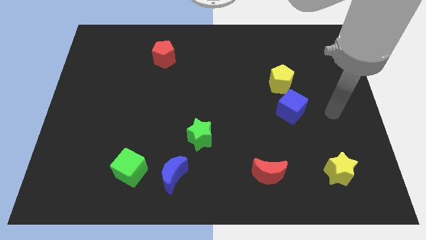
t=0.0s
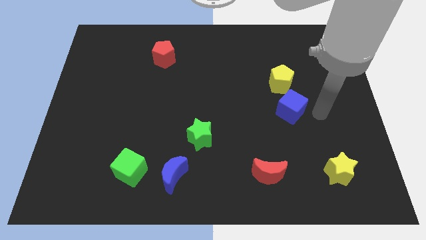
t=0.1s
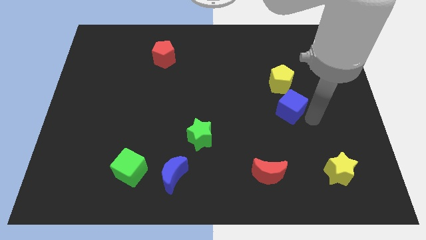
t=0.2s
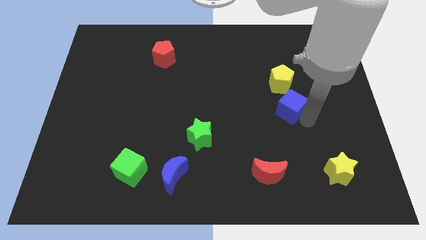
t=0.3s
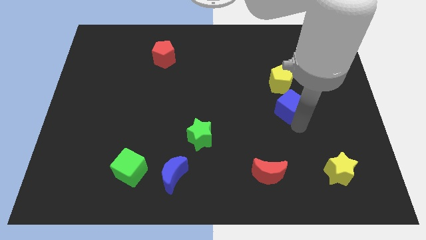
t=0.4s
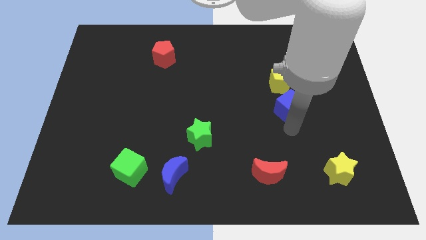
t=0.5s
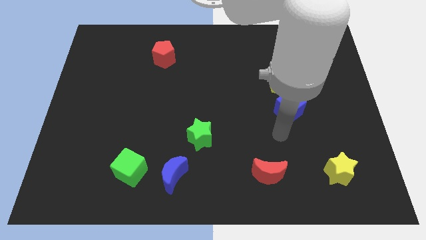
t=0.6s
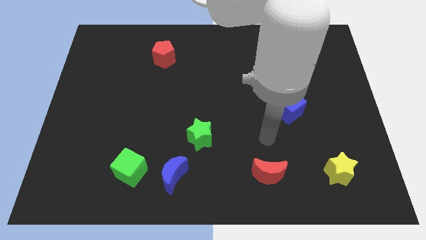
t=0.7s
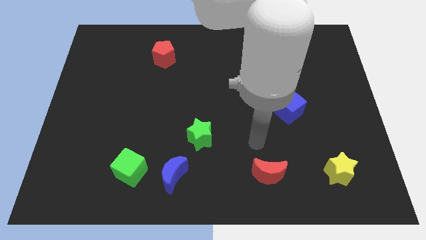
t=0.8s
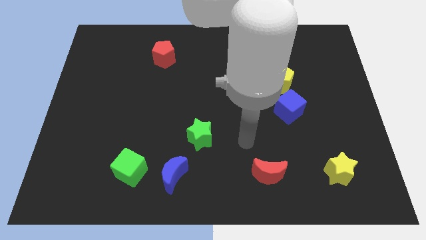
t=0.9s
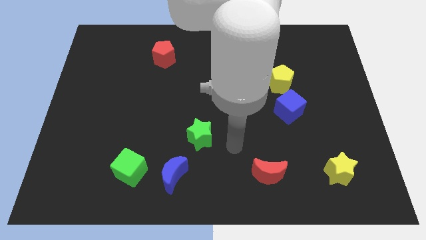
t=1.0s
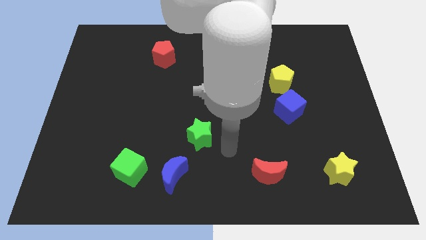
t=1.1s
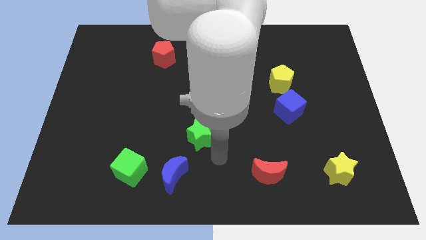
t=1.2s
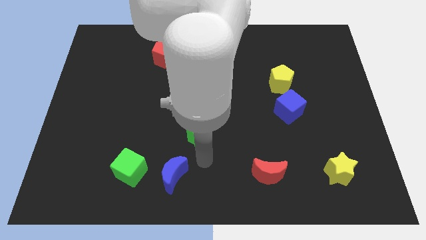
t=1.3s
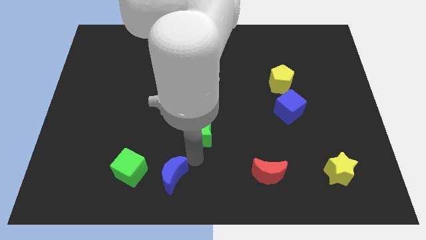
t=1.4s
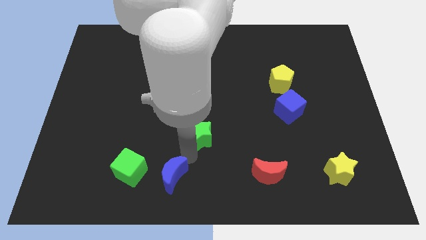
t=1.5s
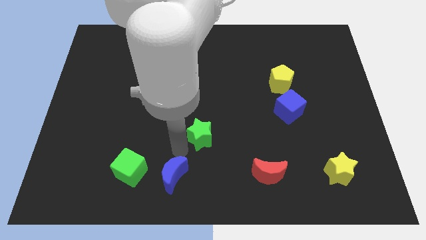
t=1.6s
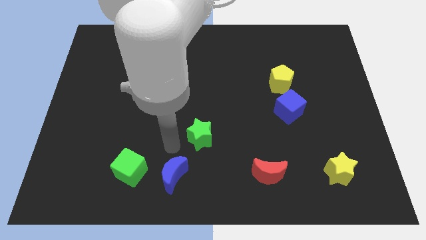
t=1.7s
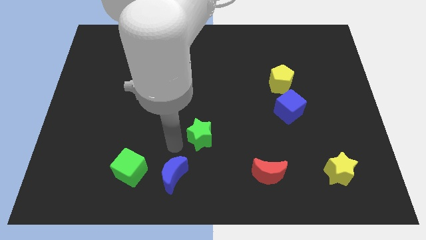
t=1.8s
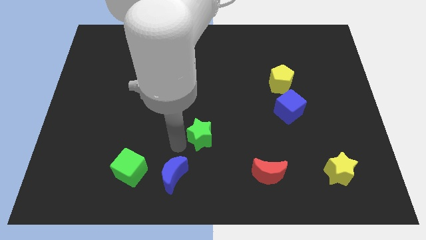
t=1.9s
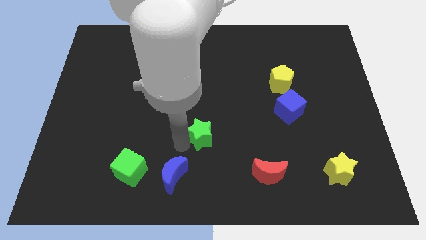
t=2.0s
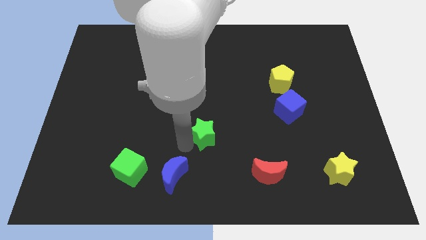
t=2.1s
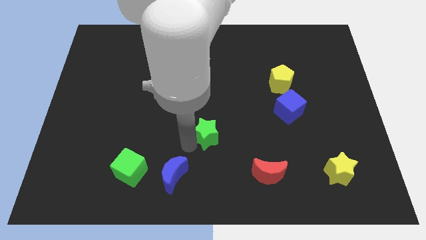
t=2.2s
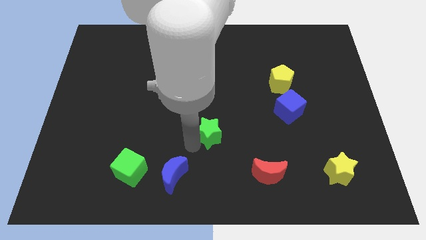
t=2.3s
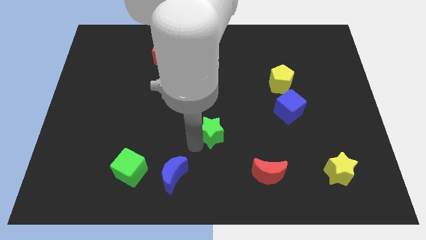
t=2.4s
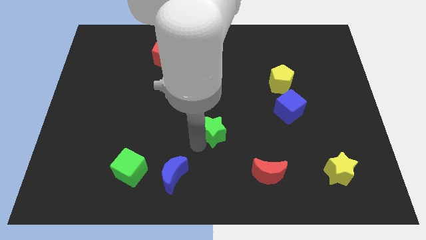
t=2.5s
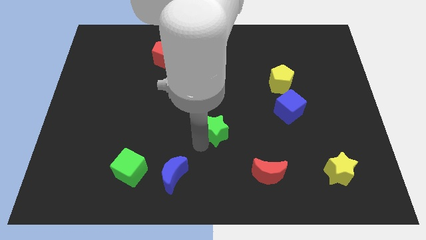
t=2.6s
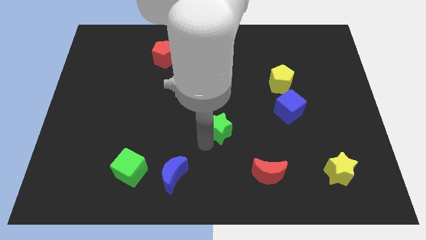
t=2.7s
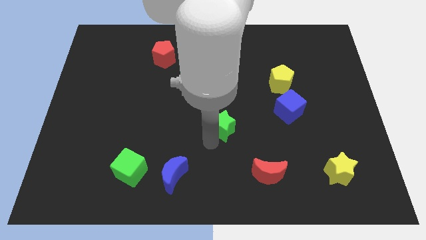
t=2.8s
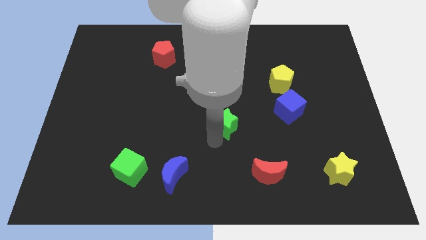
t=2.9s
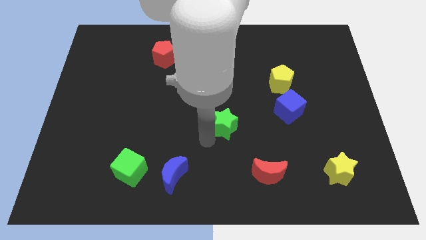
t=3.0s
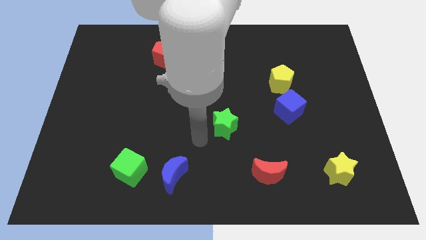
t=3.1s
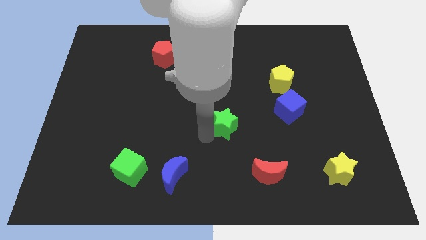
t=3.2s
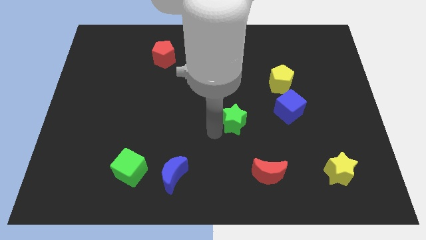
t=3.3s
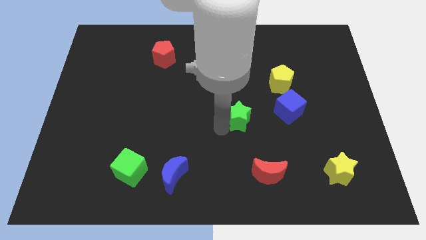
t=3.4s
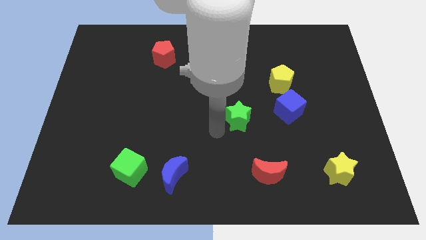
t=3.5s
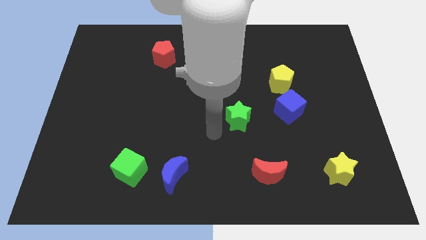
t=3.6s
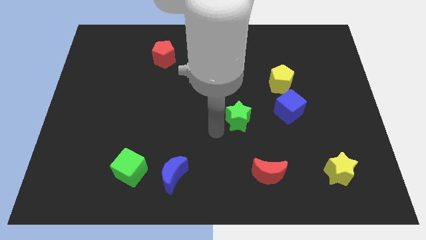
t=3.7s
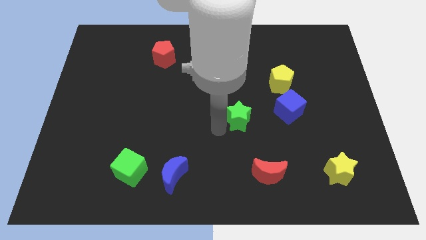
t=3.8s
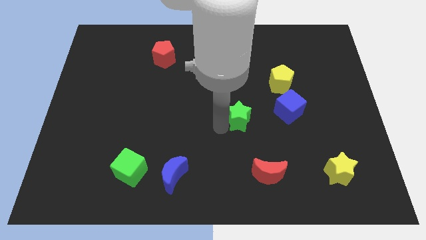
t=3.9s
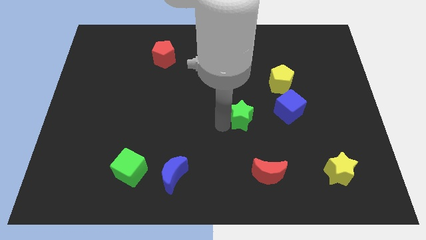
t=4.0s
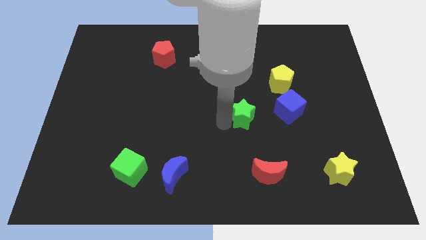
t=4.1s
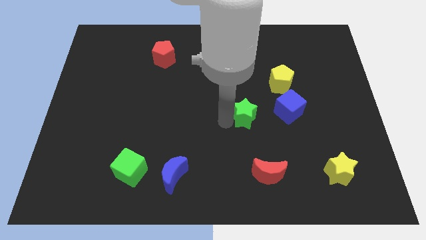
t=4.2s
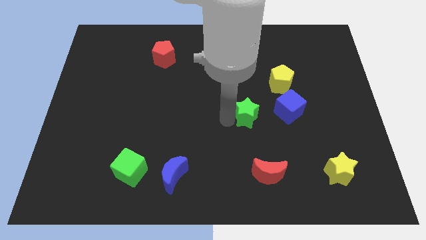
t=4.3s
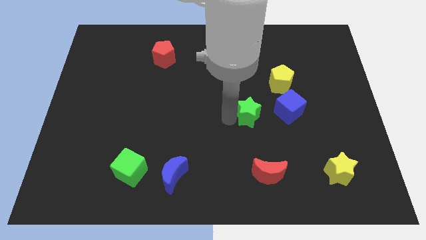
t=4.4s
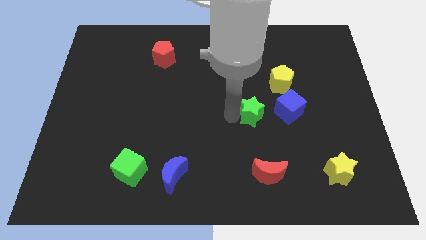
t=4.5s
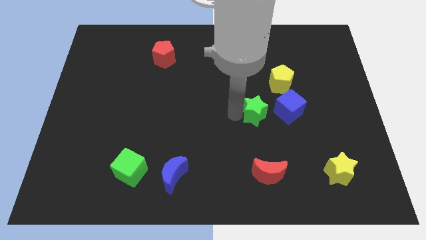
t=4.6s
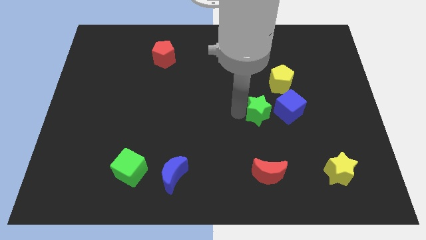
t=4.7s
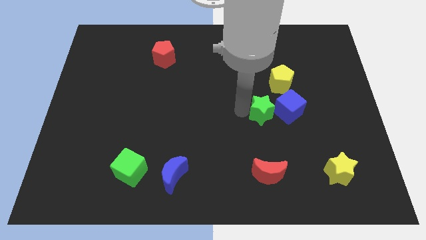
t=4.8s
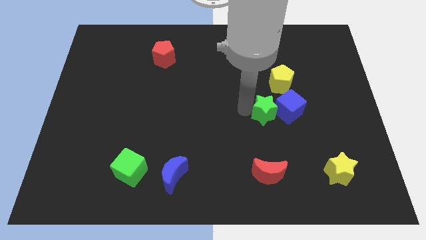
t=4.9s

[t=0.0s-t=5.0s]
move the green star towards the blue cube
